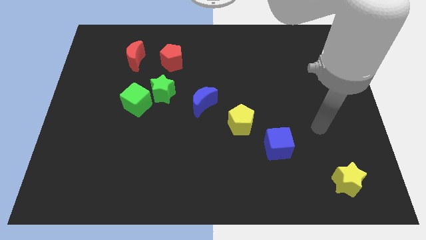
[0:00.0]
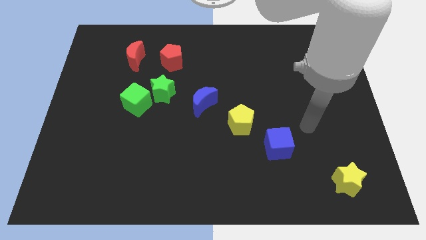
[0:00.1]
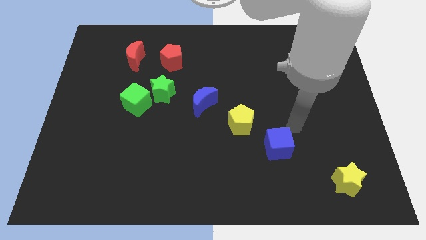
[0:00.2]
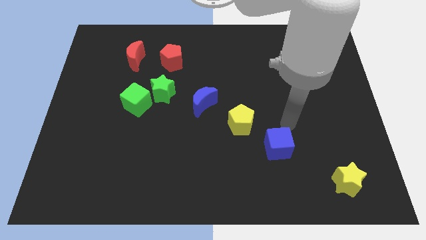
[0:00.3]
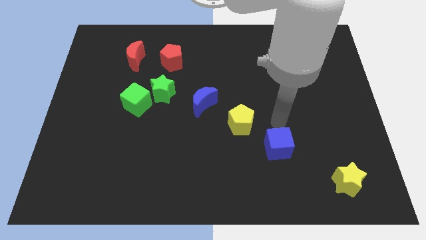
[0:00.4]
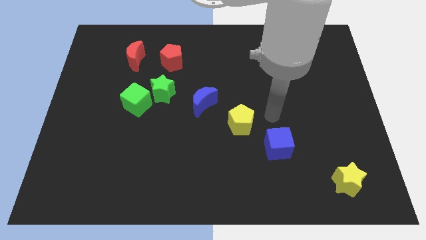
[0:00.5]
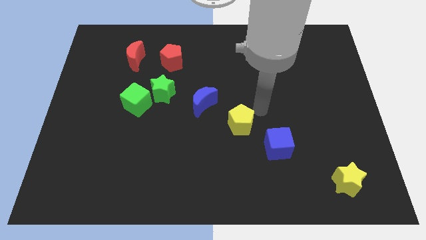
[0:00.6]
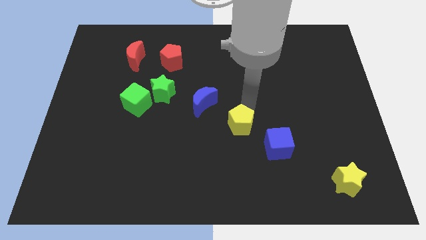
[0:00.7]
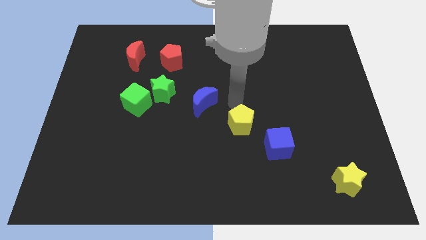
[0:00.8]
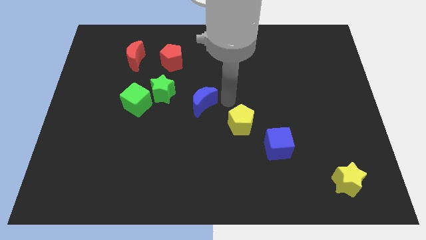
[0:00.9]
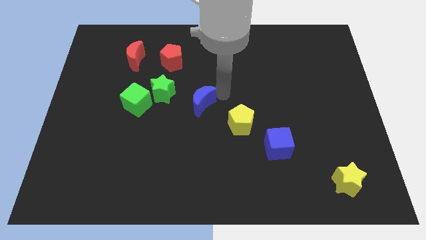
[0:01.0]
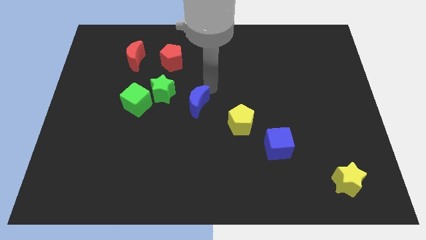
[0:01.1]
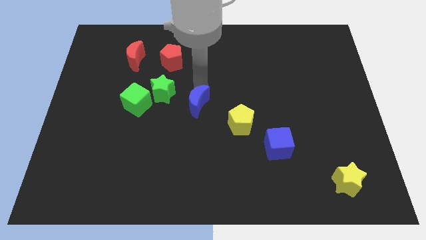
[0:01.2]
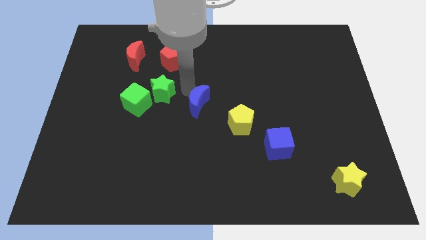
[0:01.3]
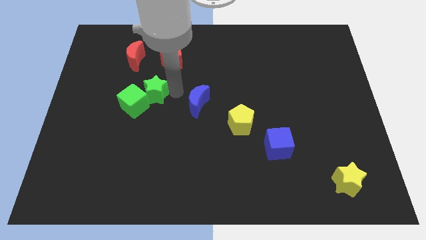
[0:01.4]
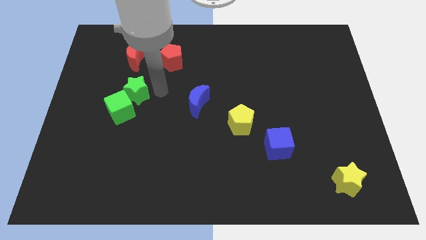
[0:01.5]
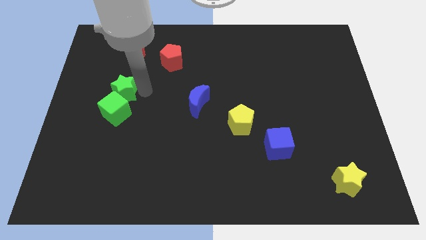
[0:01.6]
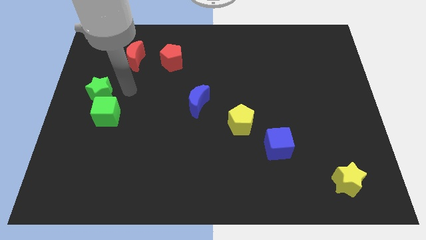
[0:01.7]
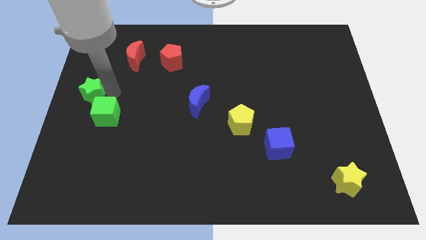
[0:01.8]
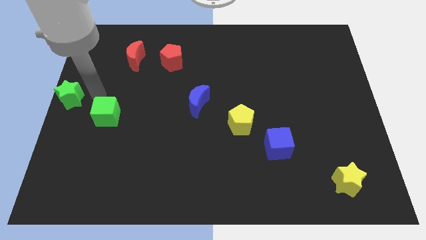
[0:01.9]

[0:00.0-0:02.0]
move the green cube away from the green star

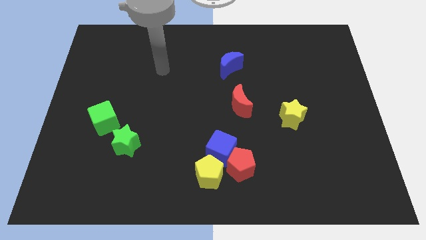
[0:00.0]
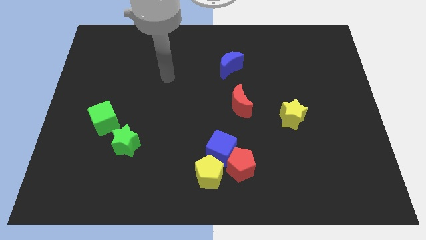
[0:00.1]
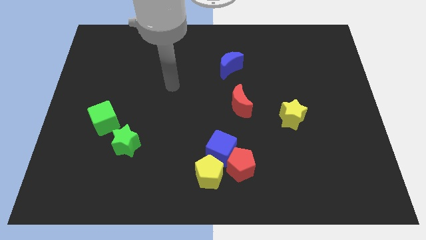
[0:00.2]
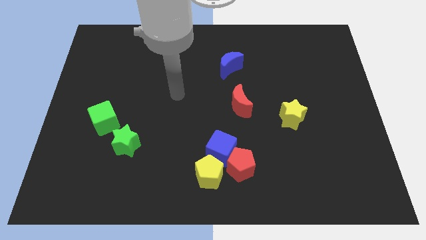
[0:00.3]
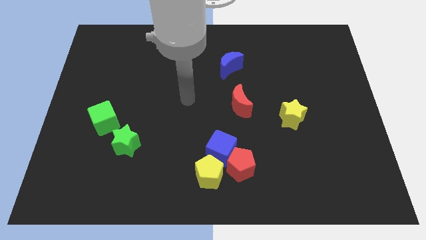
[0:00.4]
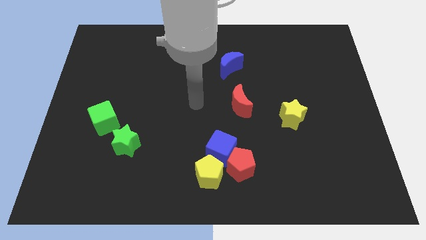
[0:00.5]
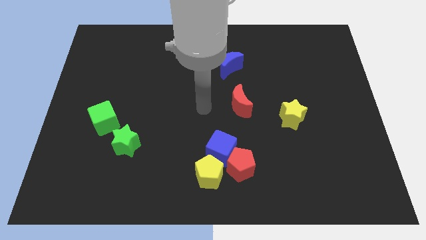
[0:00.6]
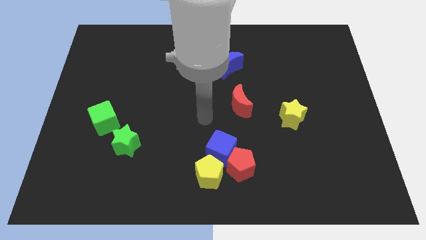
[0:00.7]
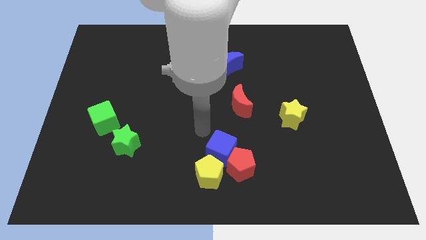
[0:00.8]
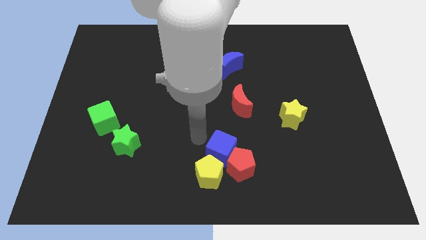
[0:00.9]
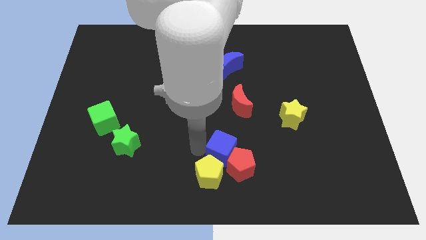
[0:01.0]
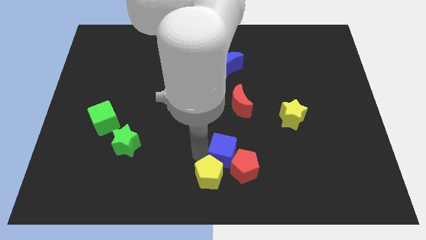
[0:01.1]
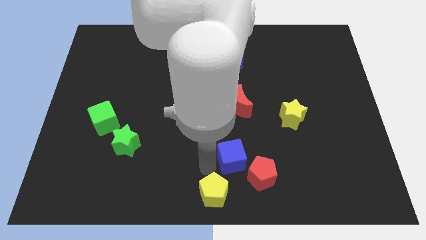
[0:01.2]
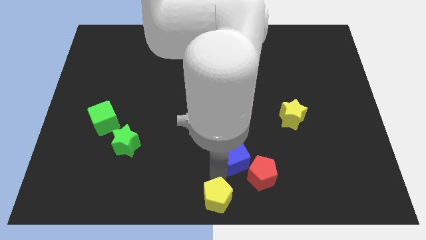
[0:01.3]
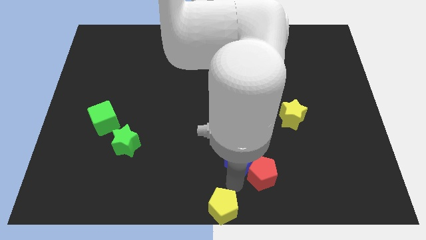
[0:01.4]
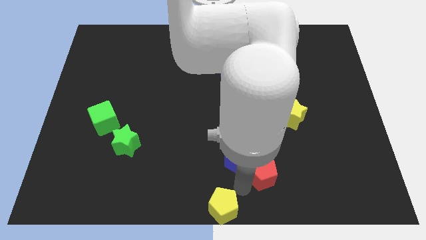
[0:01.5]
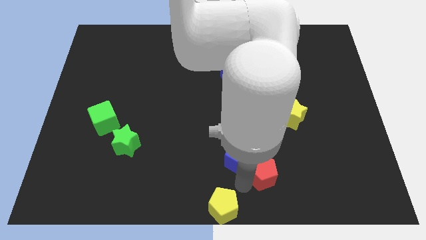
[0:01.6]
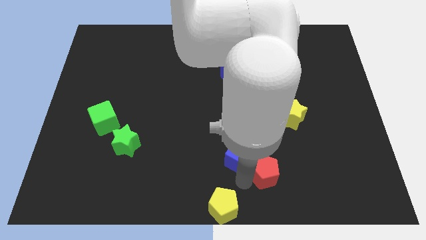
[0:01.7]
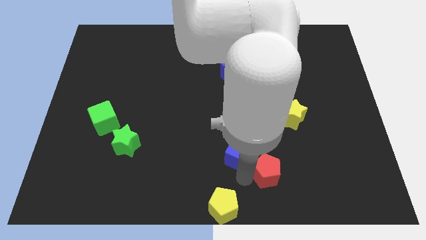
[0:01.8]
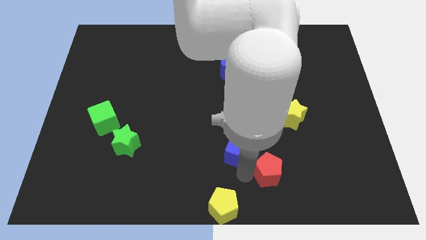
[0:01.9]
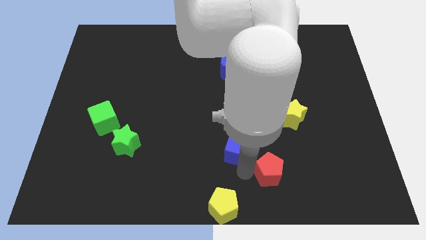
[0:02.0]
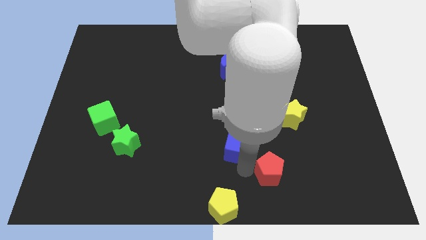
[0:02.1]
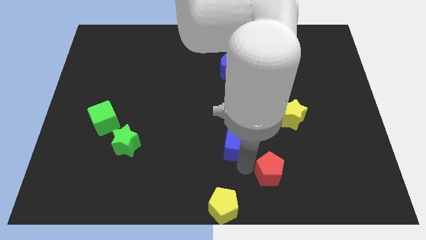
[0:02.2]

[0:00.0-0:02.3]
move the blue cube away from the red pentagon and yellow pentagon

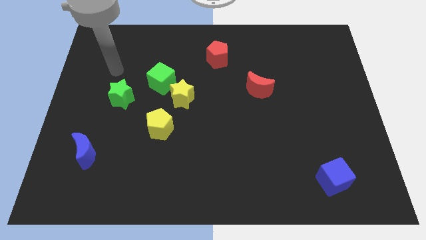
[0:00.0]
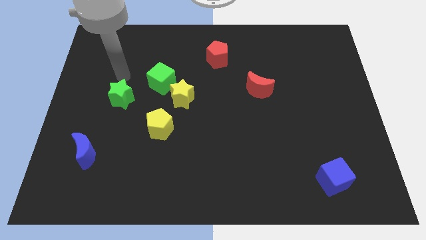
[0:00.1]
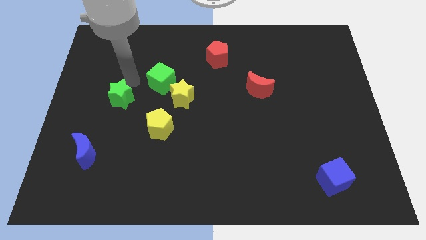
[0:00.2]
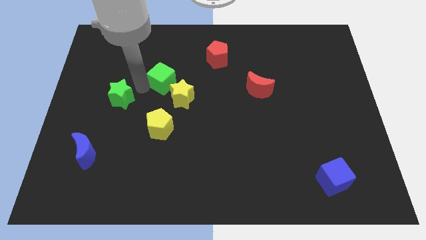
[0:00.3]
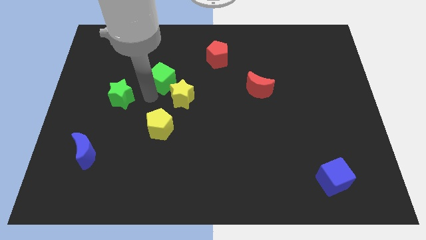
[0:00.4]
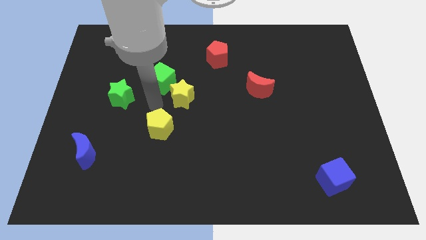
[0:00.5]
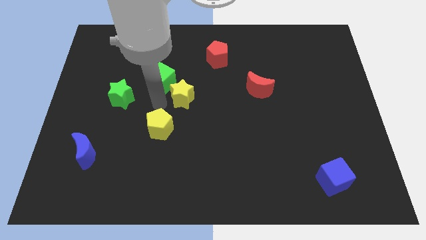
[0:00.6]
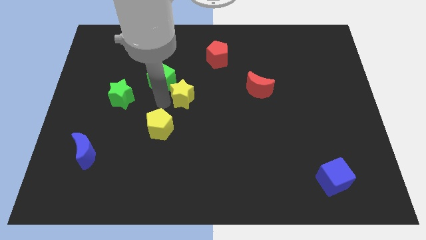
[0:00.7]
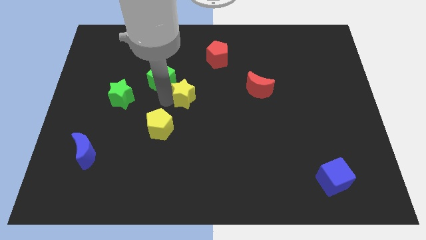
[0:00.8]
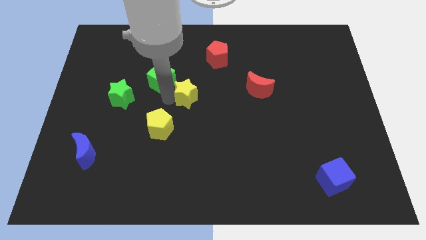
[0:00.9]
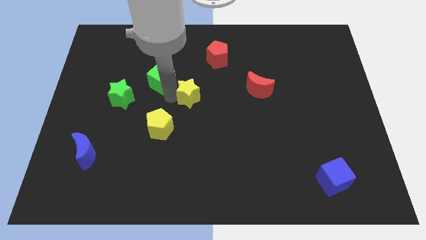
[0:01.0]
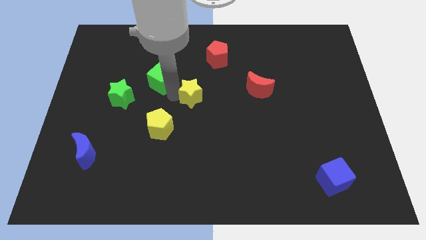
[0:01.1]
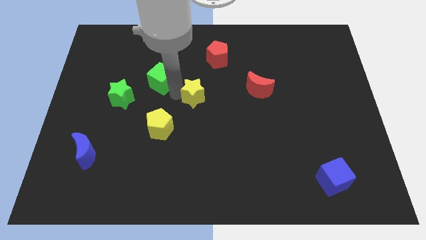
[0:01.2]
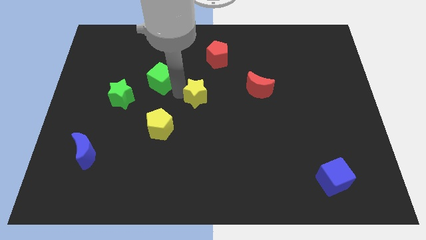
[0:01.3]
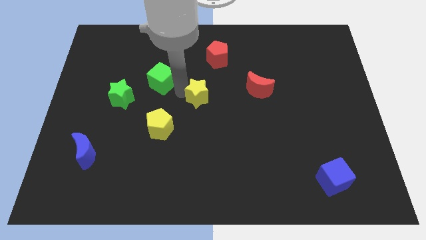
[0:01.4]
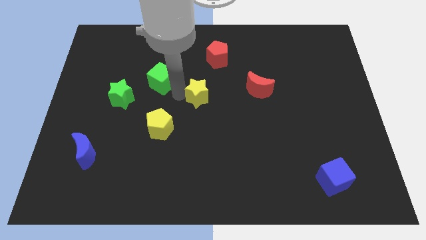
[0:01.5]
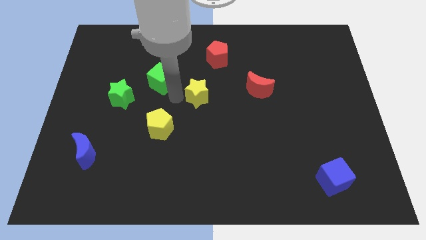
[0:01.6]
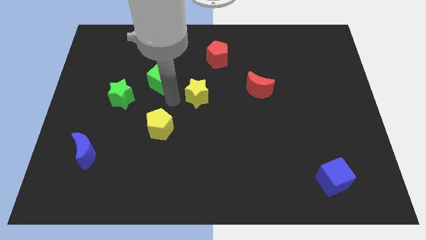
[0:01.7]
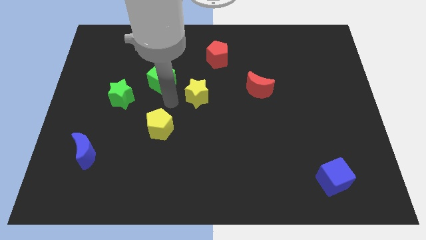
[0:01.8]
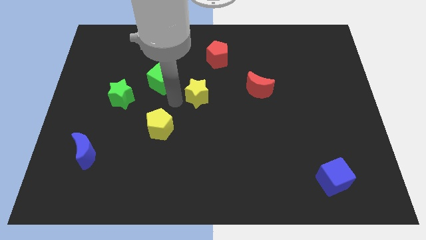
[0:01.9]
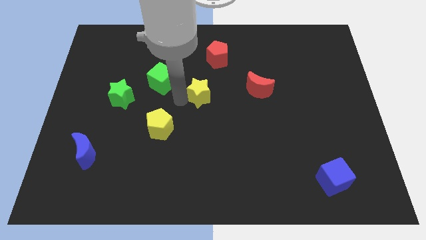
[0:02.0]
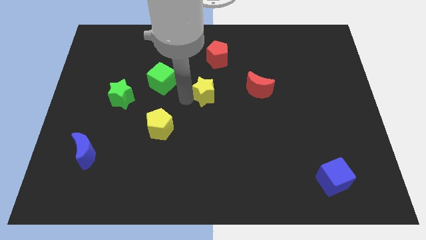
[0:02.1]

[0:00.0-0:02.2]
separate the yellow star from the green cube and yellow pentagon

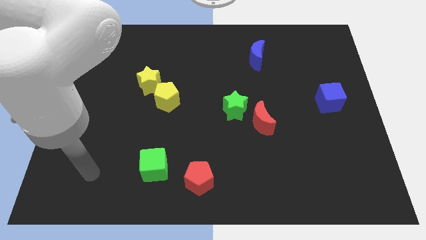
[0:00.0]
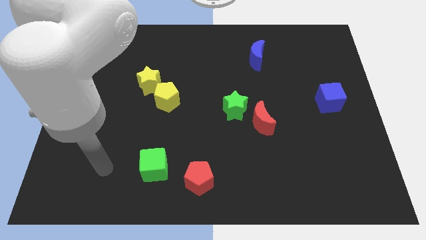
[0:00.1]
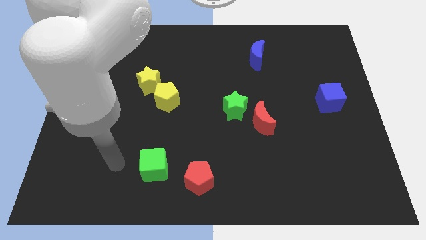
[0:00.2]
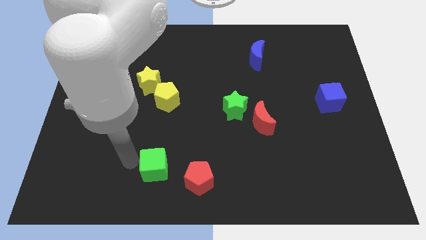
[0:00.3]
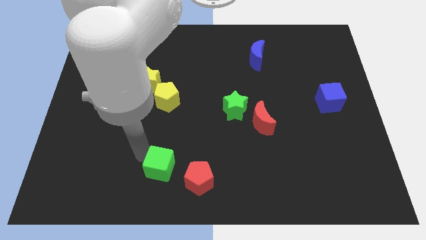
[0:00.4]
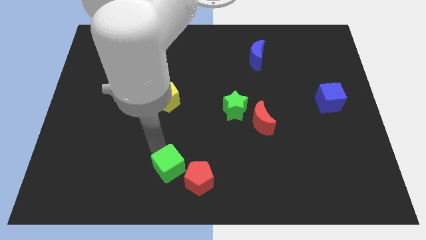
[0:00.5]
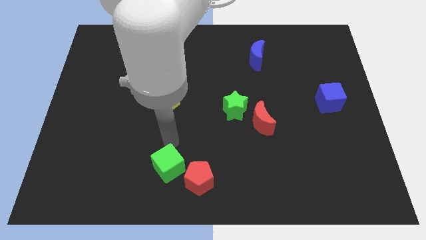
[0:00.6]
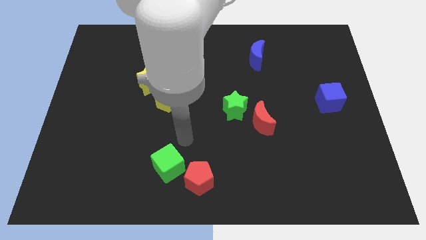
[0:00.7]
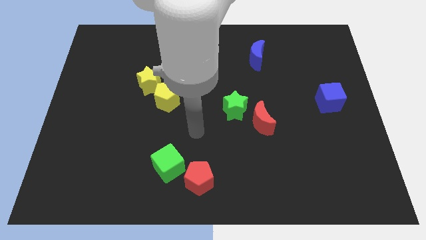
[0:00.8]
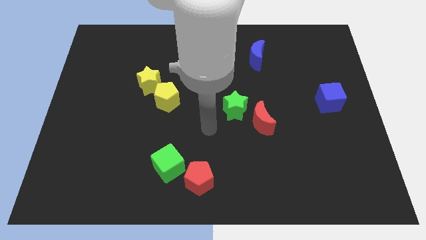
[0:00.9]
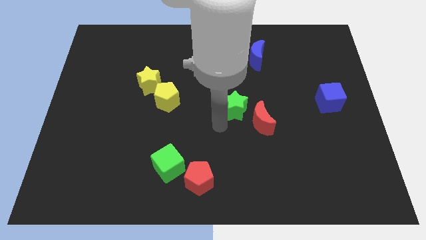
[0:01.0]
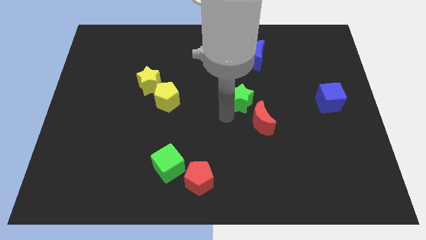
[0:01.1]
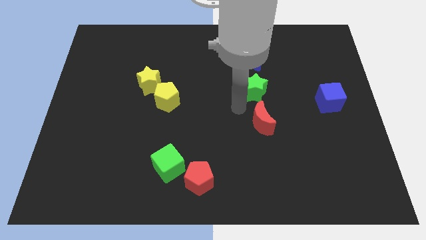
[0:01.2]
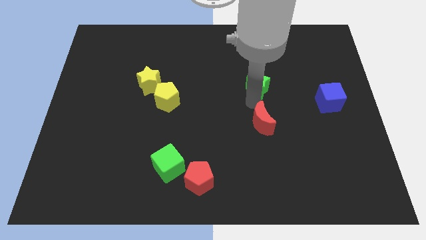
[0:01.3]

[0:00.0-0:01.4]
separate the red moon from the green star

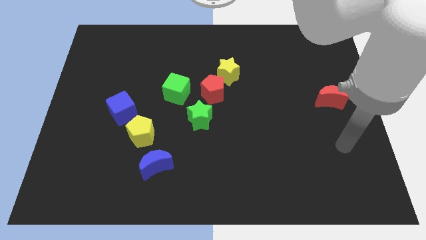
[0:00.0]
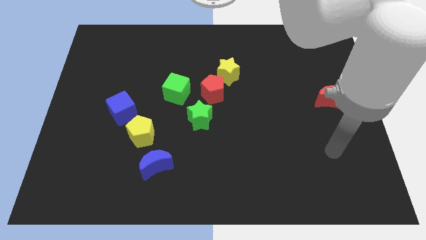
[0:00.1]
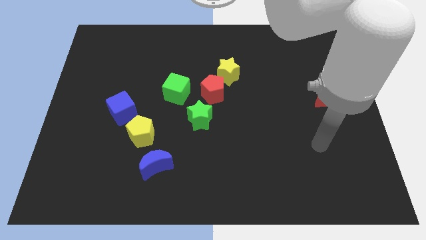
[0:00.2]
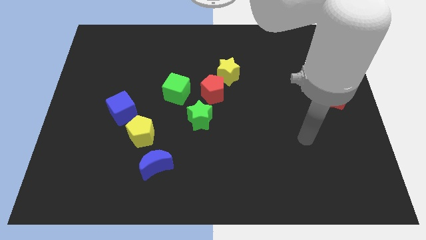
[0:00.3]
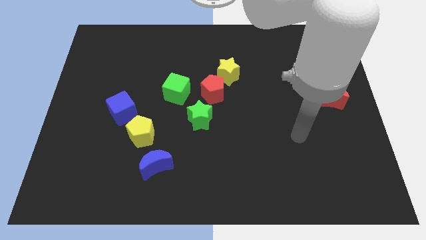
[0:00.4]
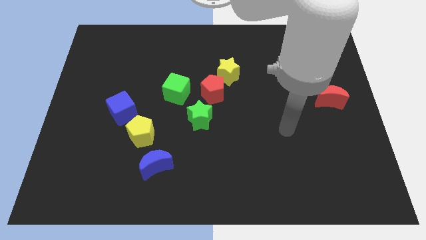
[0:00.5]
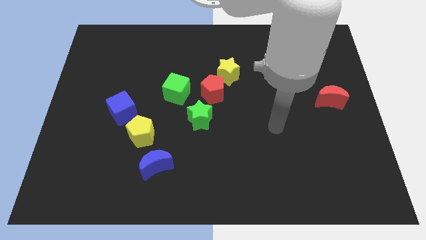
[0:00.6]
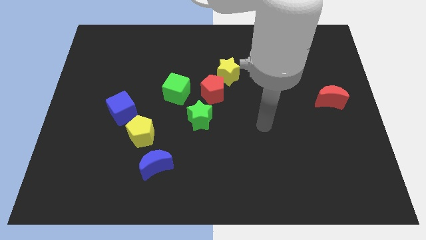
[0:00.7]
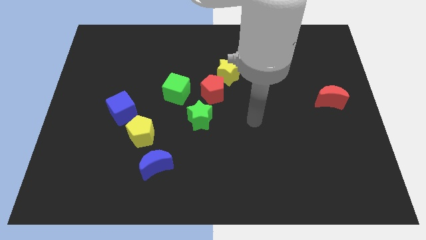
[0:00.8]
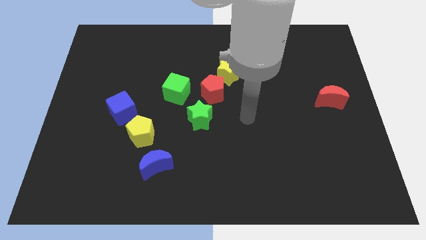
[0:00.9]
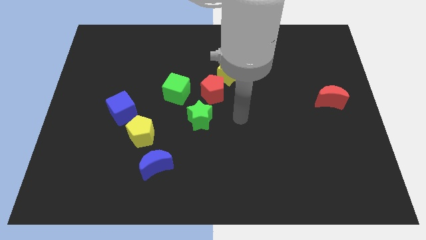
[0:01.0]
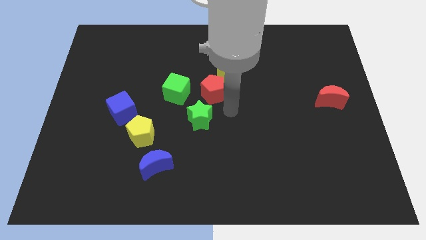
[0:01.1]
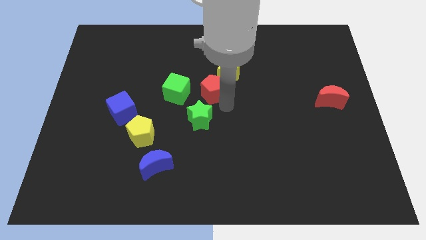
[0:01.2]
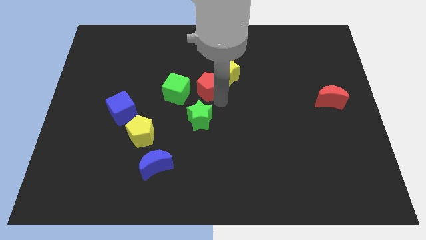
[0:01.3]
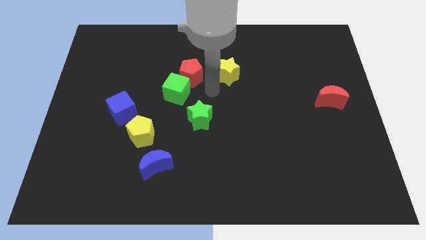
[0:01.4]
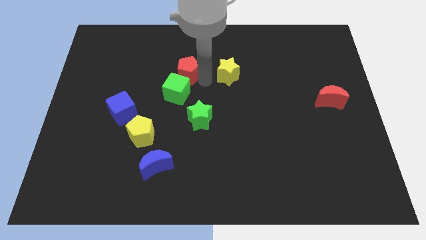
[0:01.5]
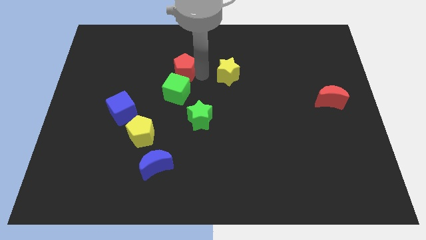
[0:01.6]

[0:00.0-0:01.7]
separate the yellow star from the red pentagon
